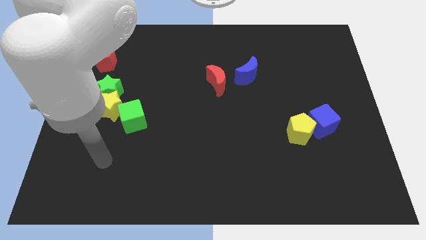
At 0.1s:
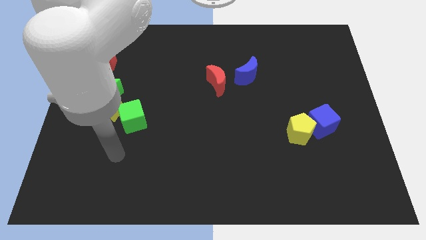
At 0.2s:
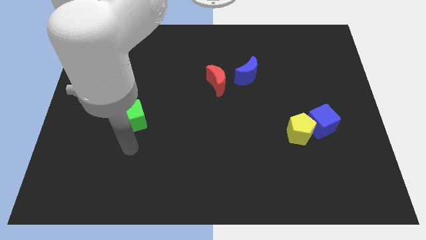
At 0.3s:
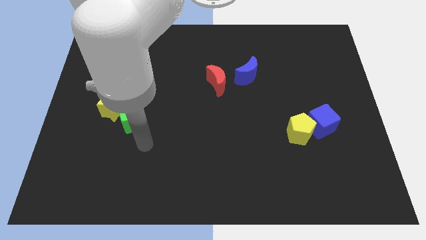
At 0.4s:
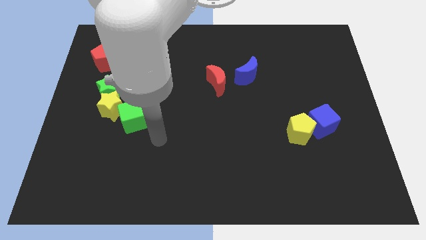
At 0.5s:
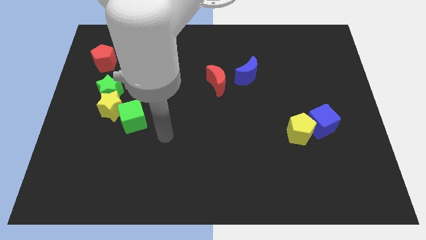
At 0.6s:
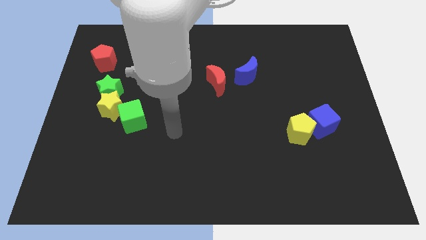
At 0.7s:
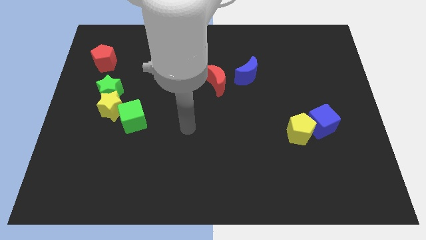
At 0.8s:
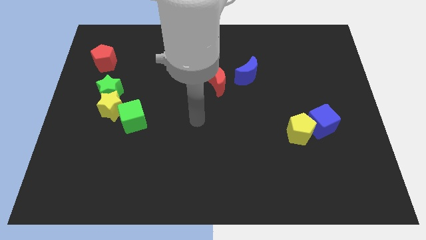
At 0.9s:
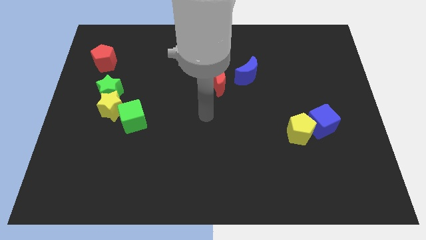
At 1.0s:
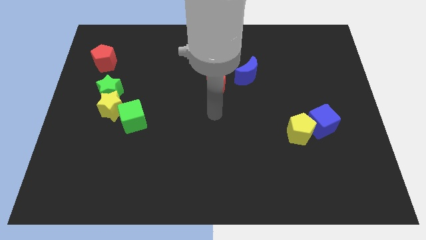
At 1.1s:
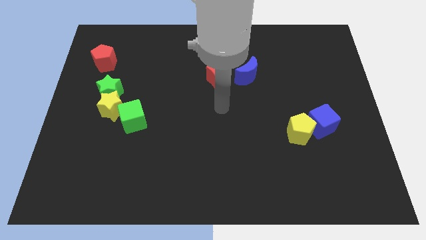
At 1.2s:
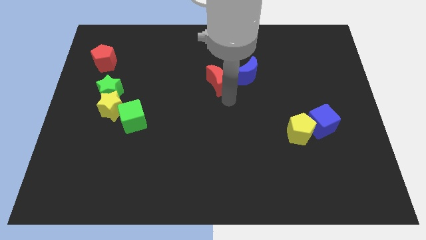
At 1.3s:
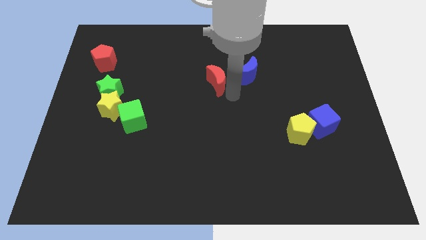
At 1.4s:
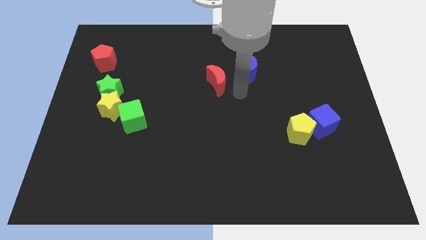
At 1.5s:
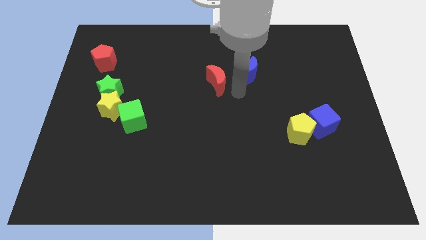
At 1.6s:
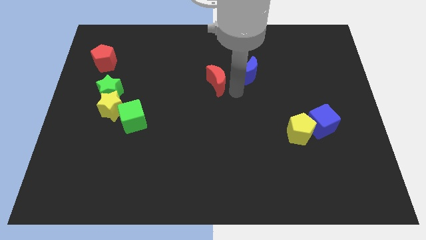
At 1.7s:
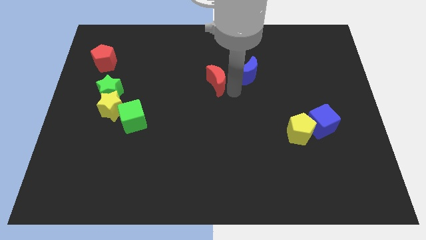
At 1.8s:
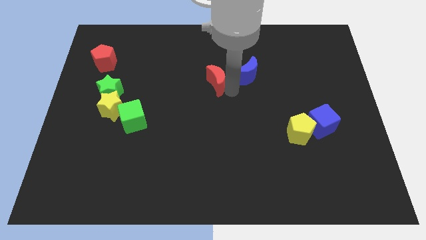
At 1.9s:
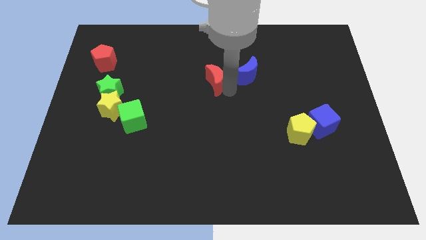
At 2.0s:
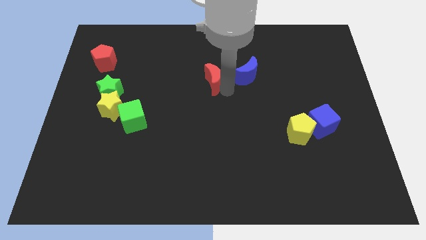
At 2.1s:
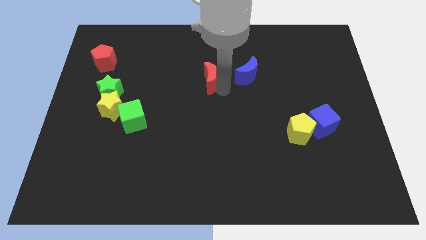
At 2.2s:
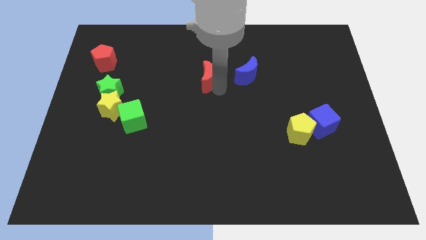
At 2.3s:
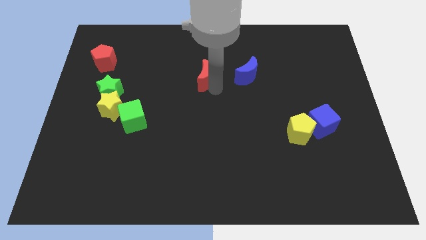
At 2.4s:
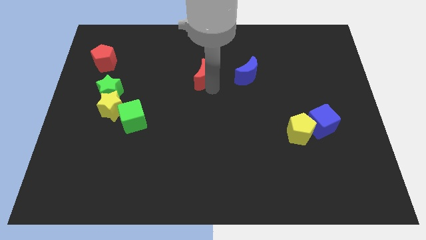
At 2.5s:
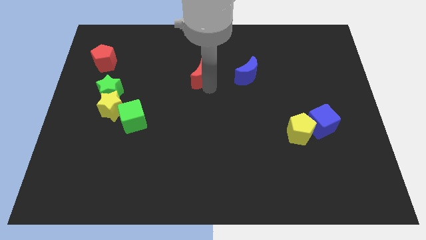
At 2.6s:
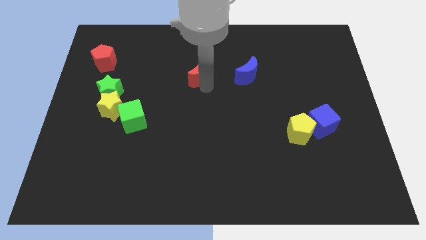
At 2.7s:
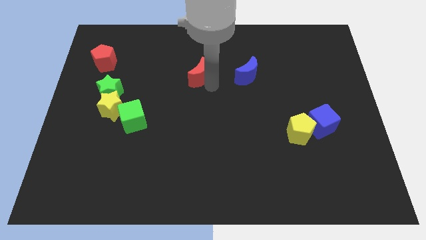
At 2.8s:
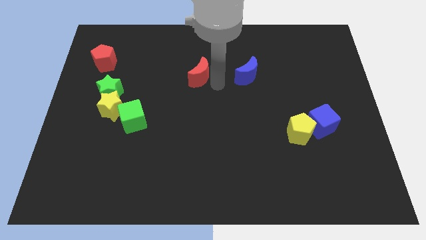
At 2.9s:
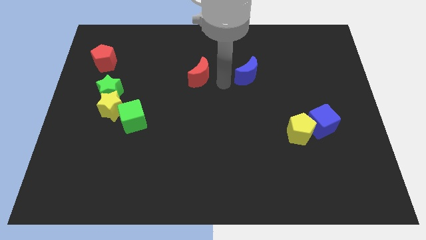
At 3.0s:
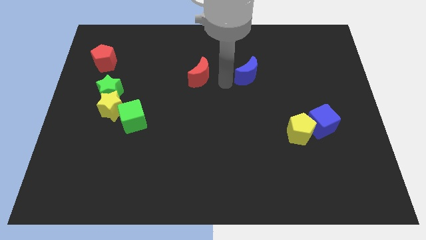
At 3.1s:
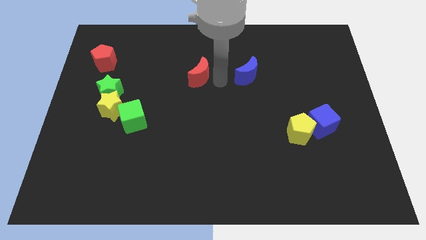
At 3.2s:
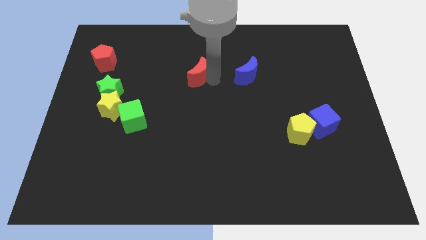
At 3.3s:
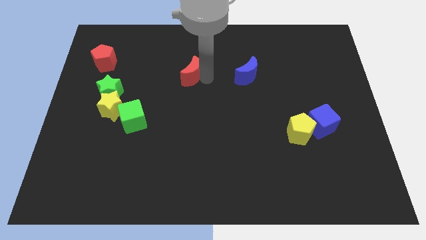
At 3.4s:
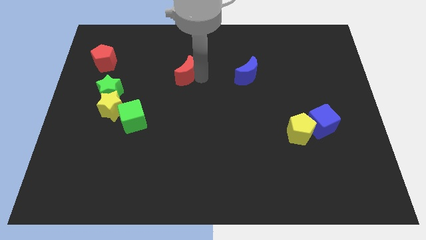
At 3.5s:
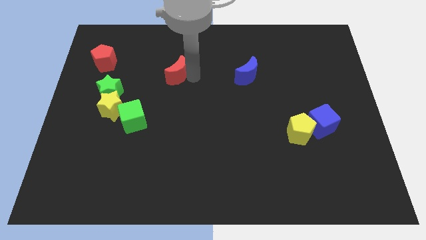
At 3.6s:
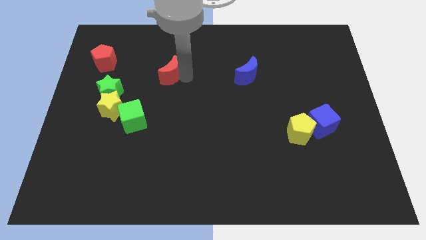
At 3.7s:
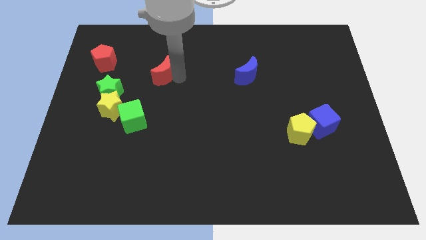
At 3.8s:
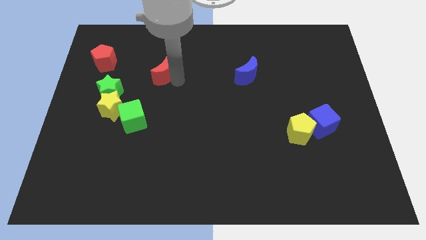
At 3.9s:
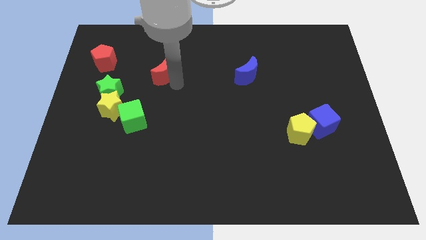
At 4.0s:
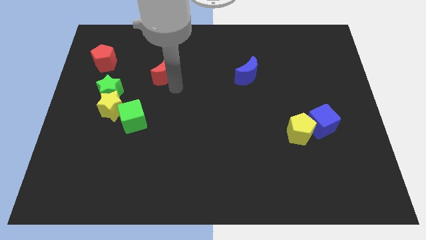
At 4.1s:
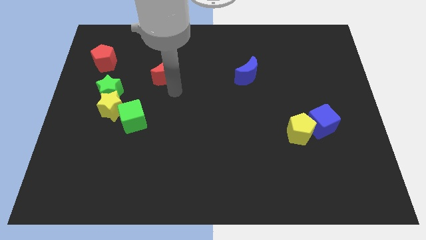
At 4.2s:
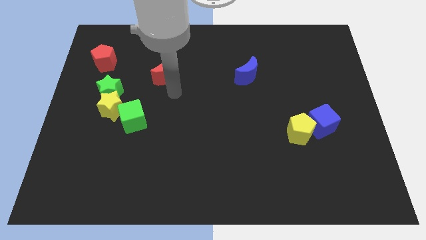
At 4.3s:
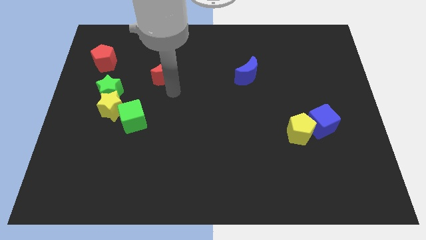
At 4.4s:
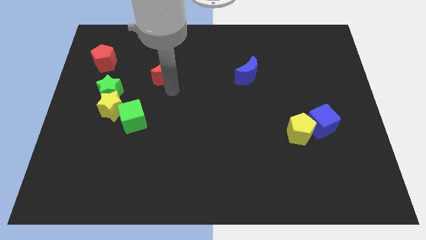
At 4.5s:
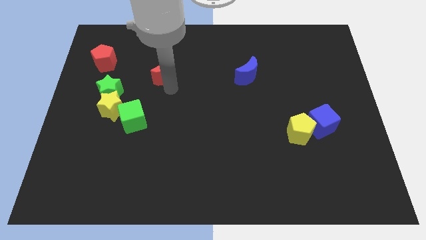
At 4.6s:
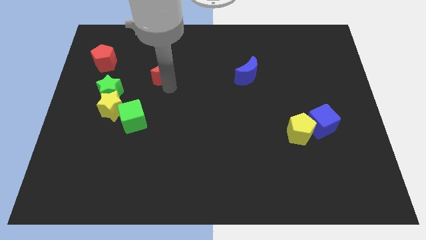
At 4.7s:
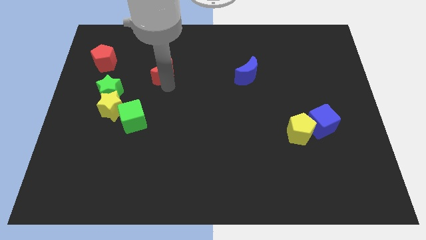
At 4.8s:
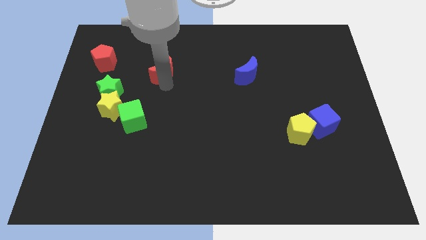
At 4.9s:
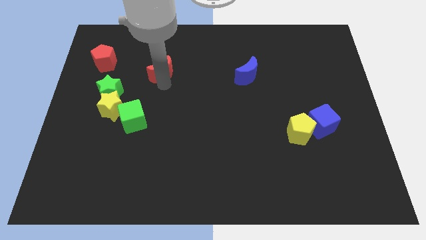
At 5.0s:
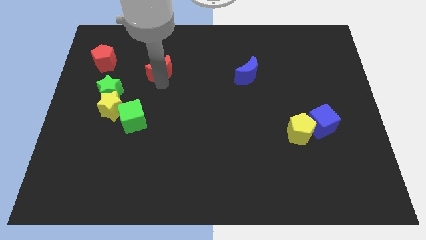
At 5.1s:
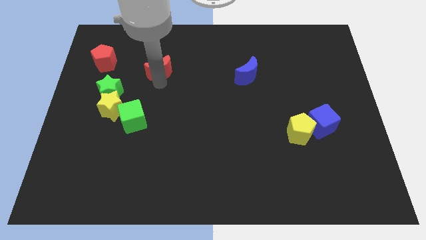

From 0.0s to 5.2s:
slide the red moon to the right side of the red pentagon
